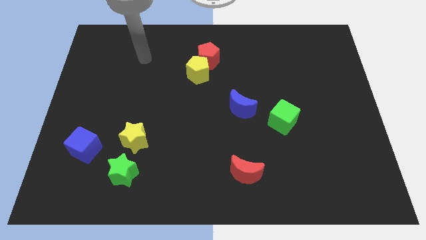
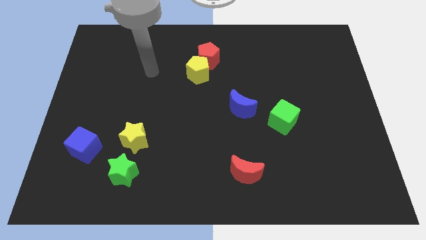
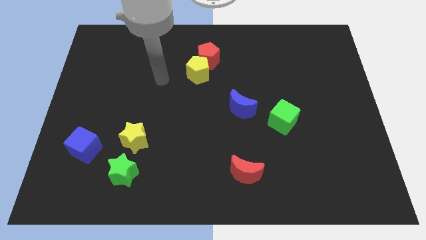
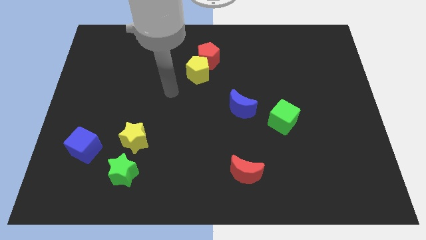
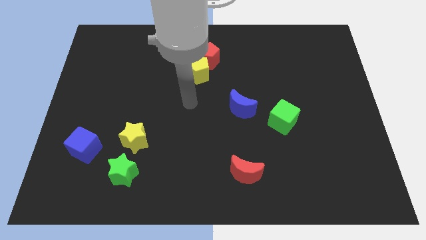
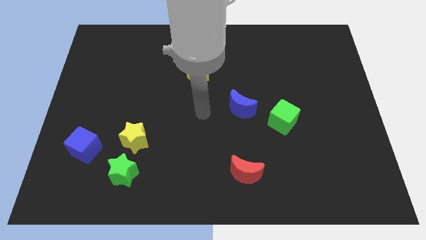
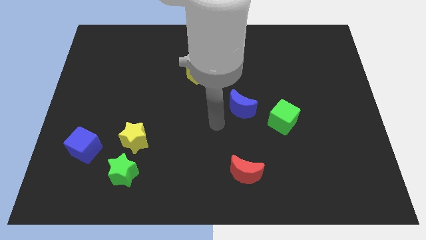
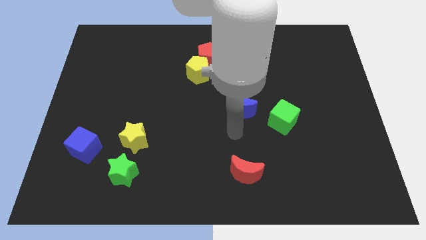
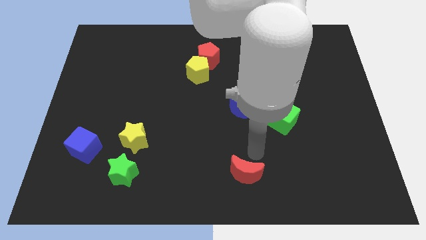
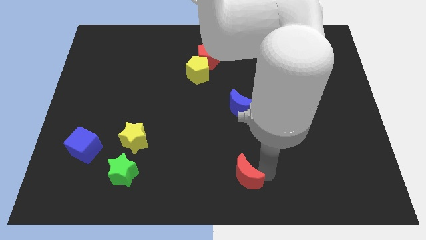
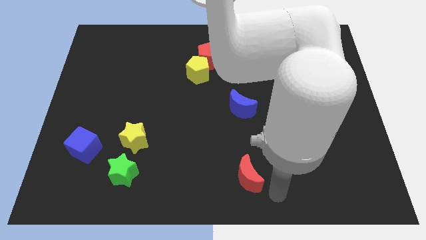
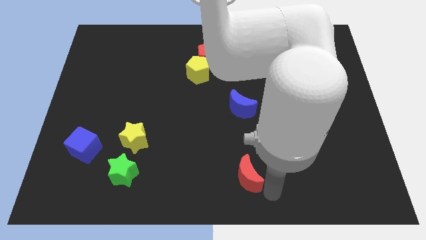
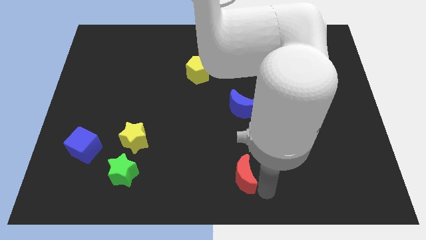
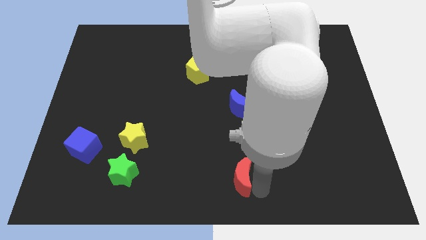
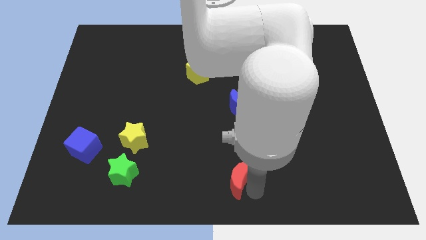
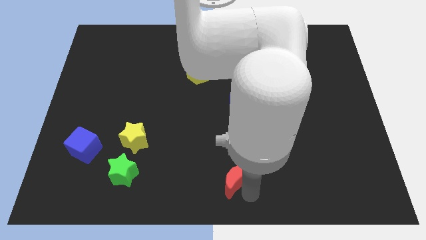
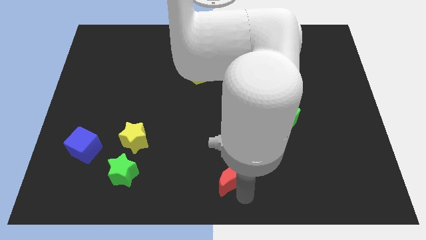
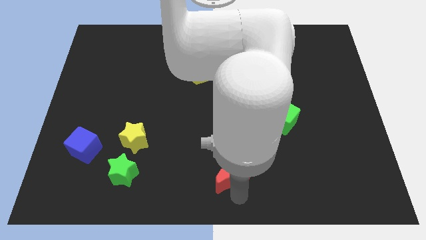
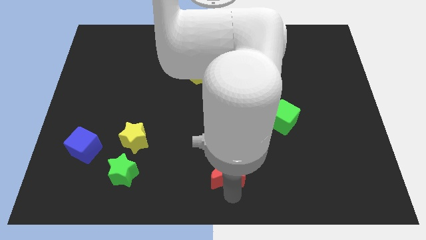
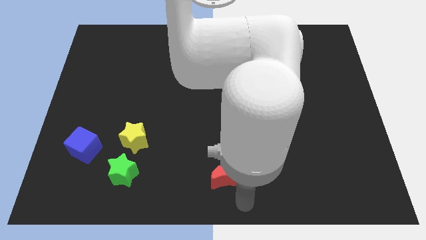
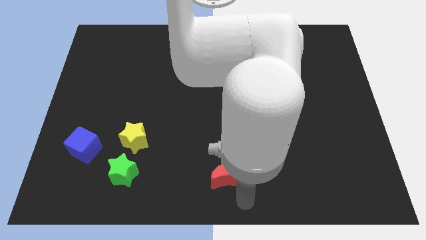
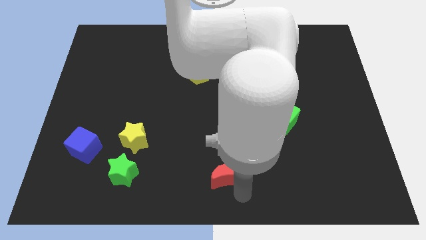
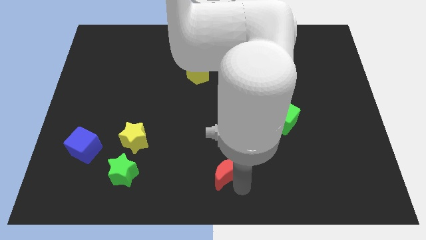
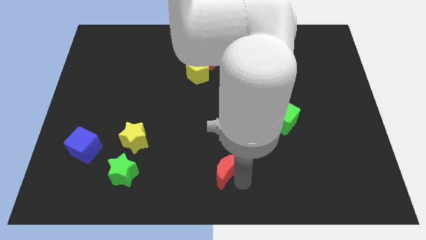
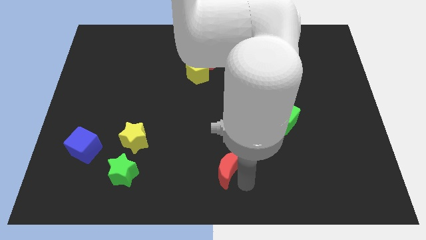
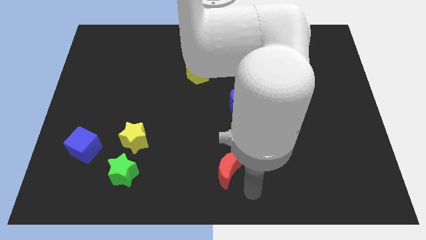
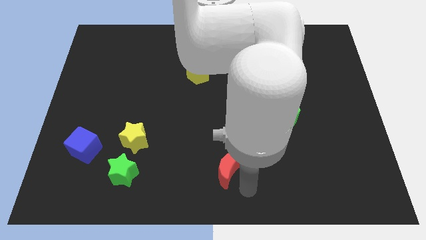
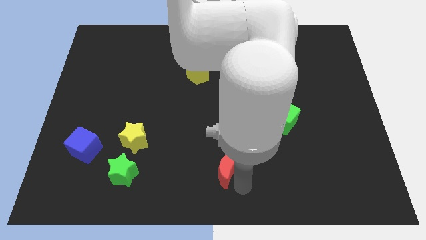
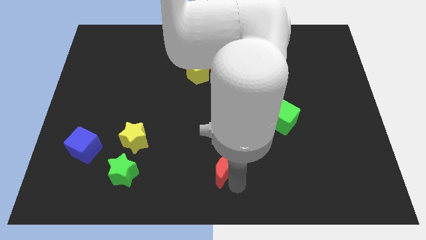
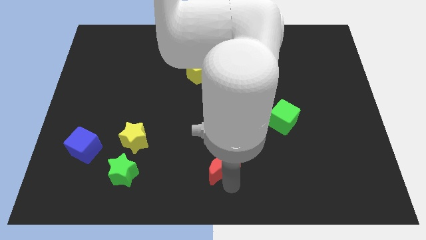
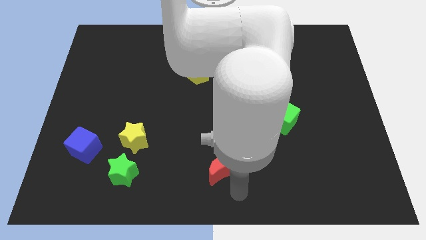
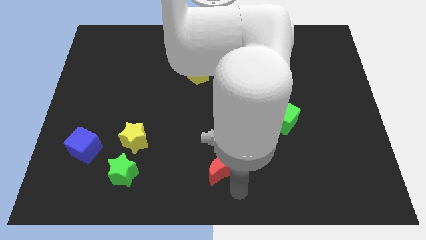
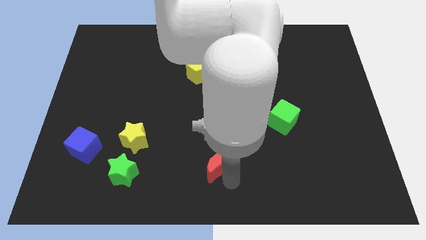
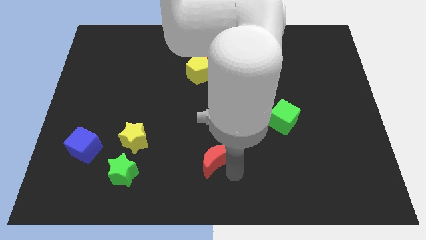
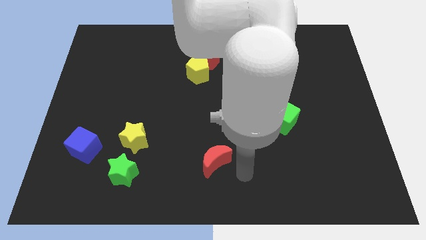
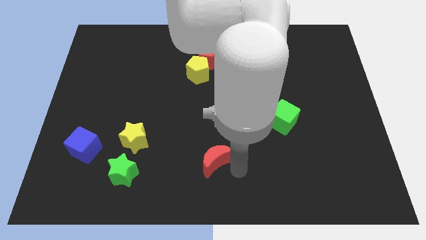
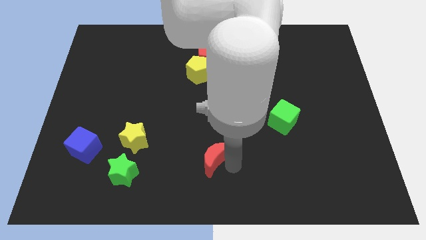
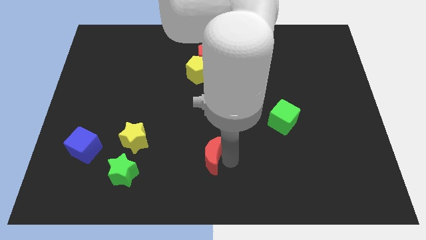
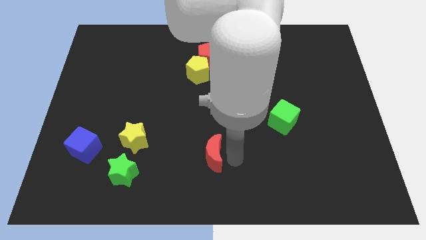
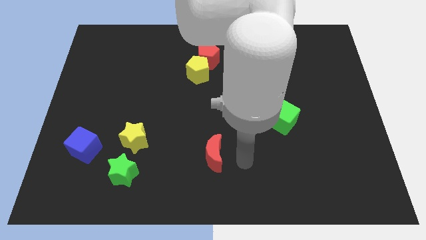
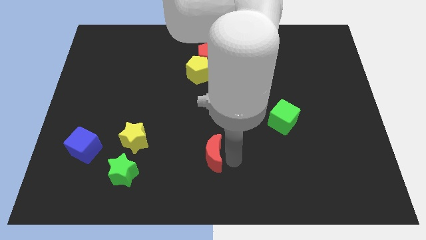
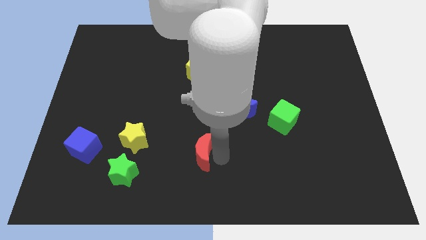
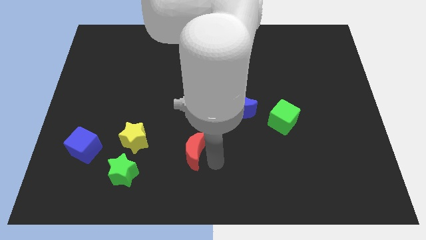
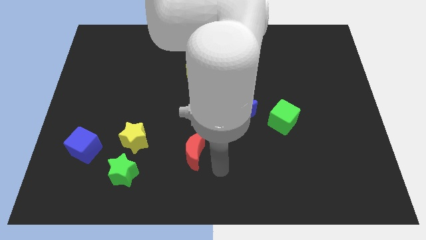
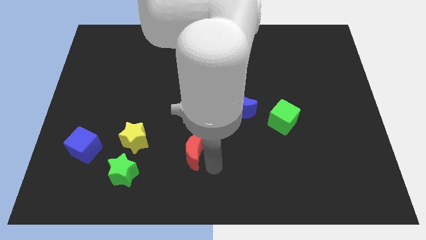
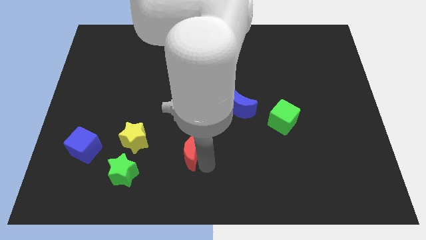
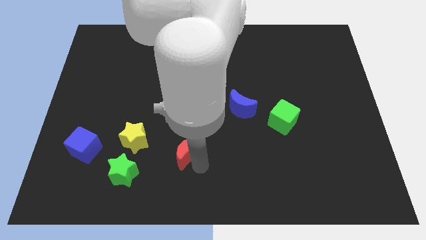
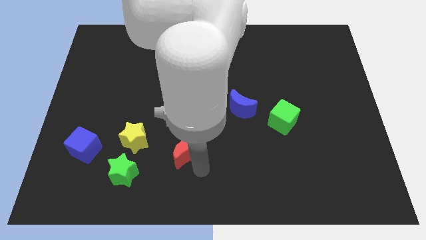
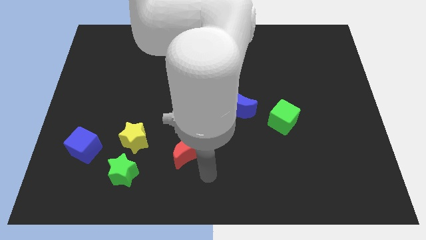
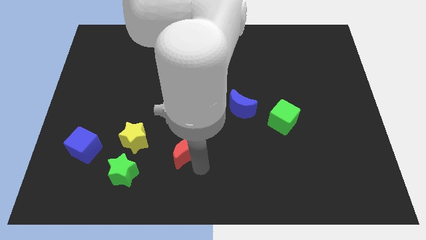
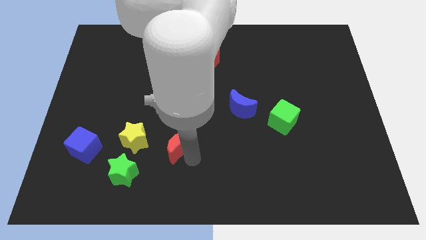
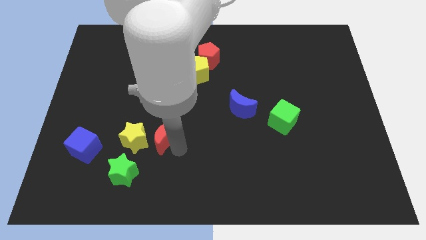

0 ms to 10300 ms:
push the red moon diagonally up and to the right of the yellow star

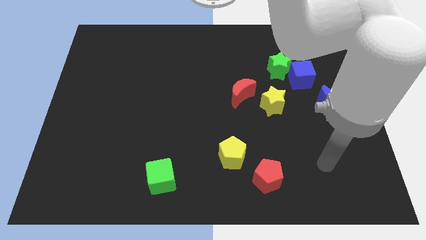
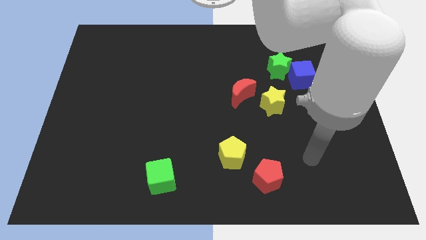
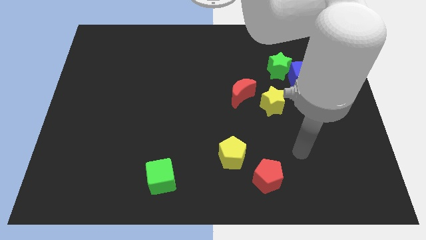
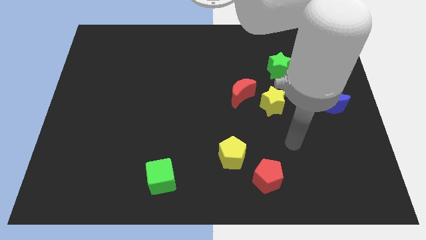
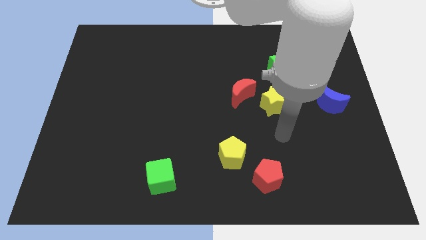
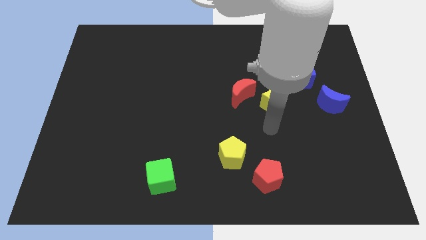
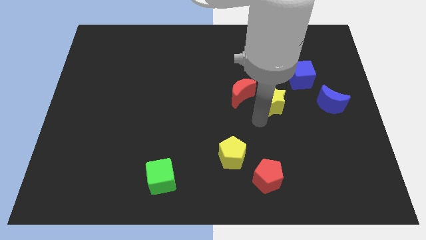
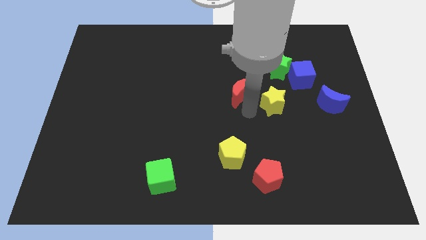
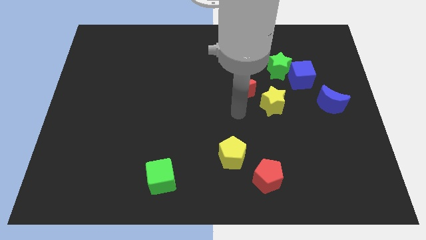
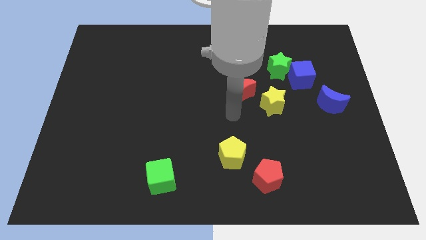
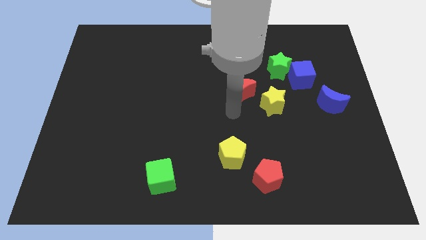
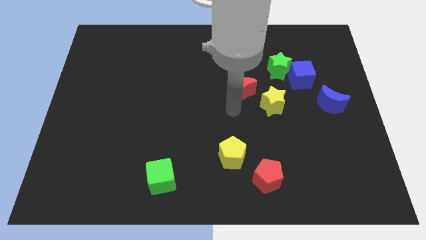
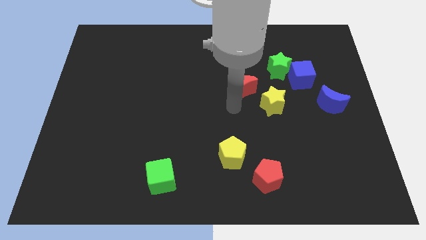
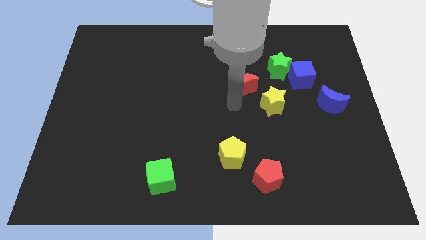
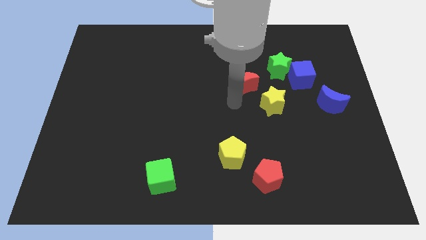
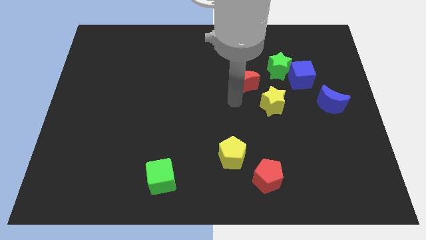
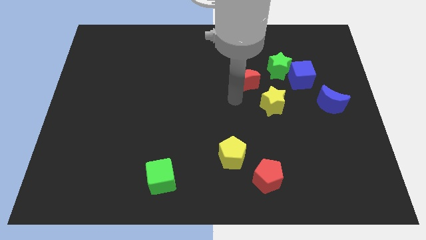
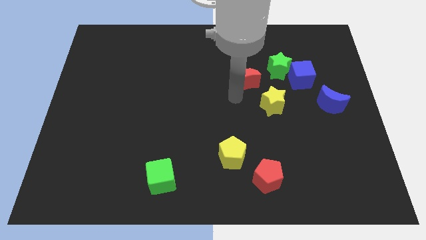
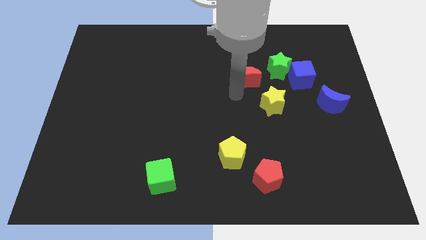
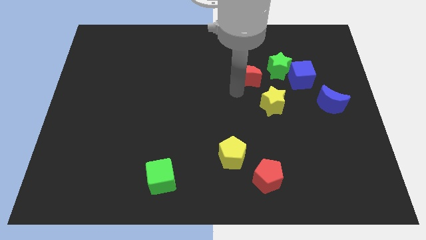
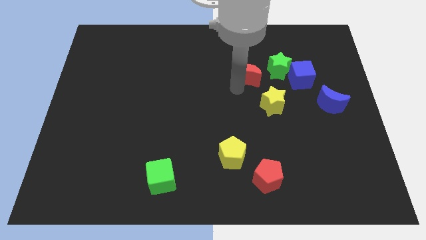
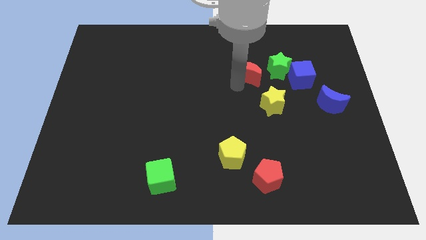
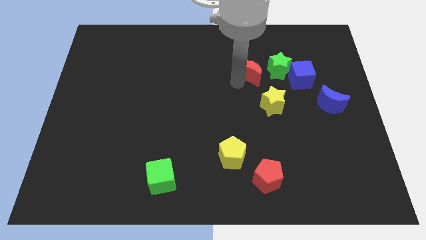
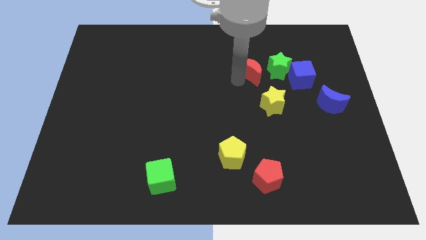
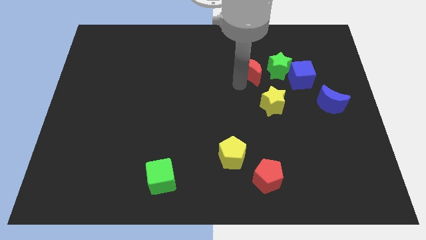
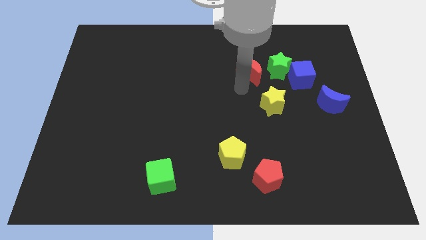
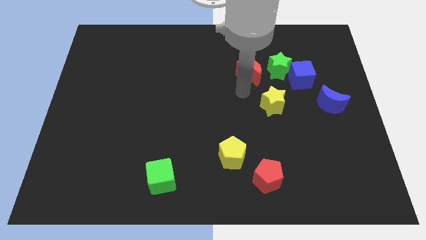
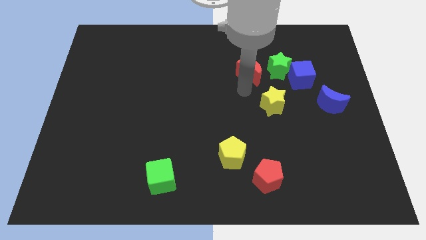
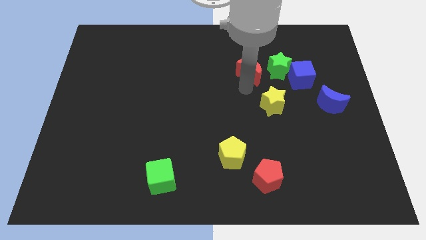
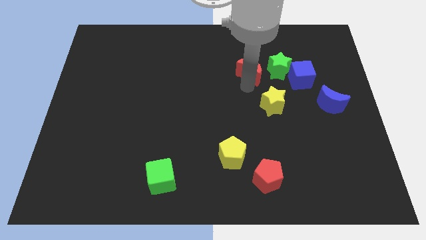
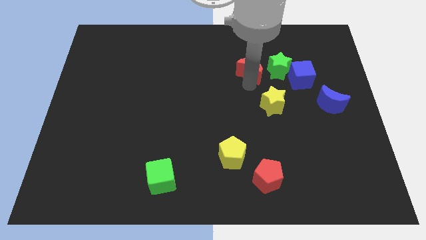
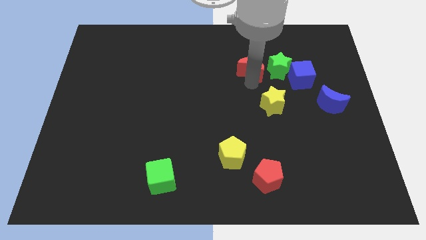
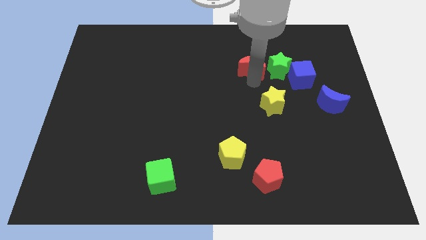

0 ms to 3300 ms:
put the red moon to the top left side of the green star
